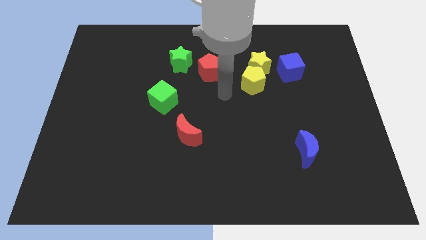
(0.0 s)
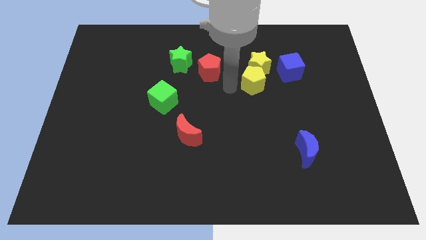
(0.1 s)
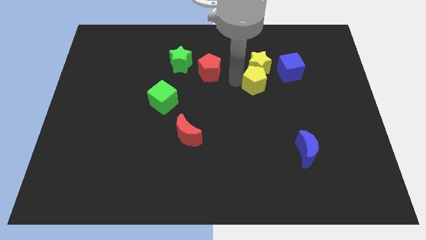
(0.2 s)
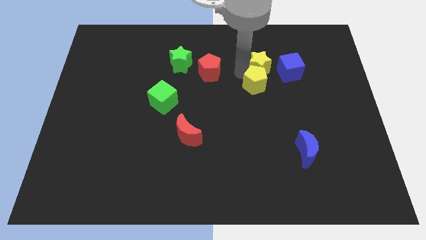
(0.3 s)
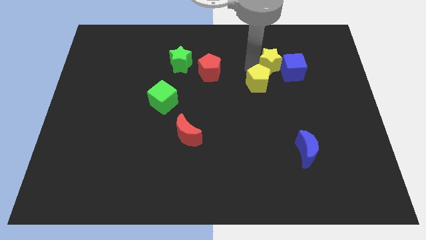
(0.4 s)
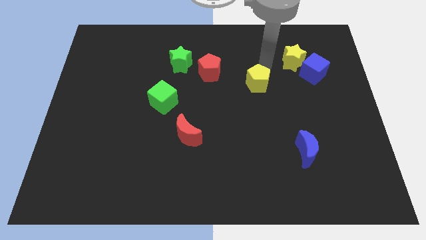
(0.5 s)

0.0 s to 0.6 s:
pull the yellow pentagon apart from the yellow star

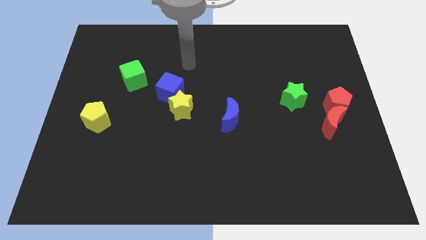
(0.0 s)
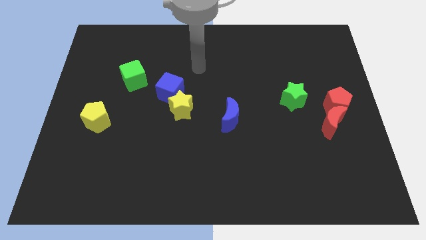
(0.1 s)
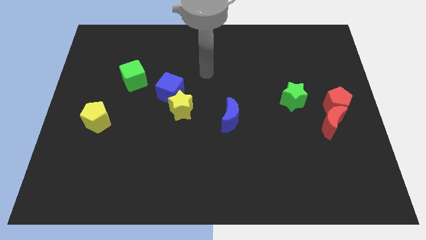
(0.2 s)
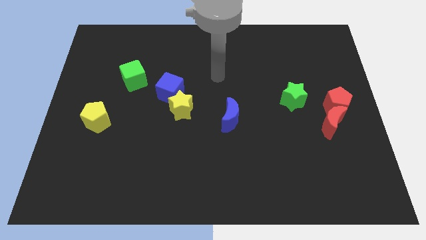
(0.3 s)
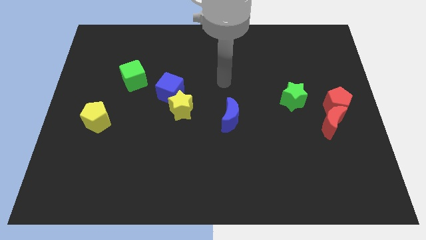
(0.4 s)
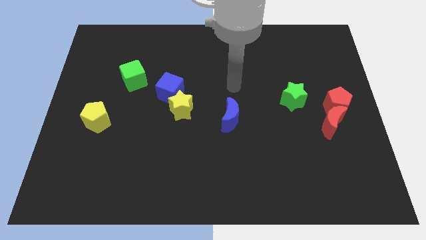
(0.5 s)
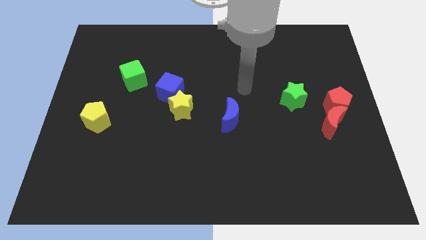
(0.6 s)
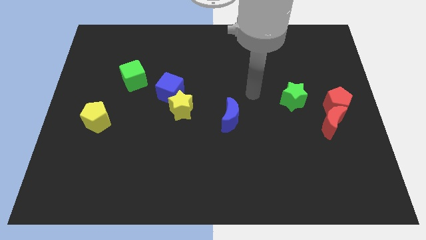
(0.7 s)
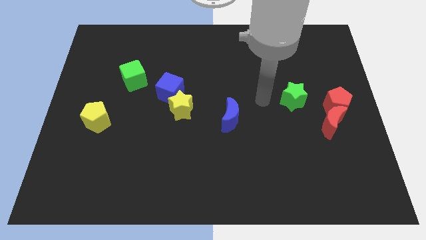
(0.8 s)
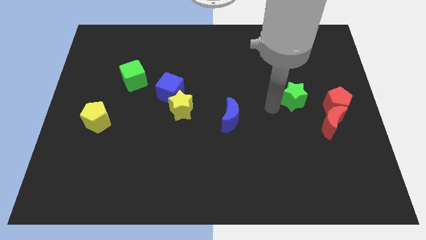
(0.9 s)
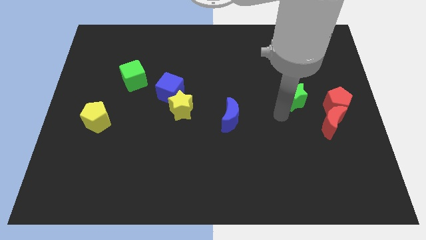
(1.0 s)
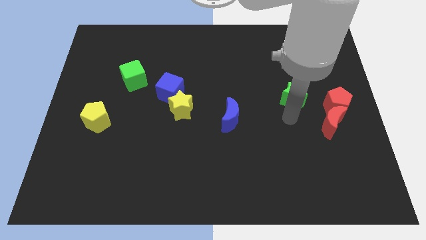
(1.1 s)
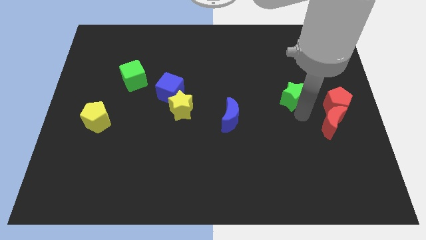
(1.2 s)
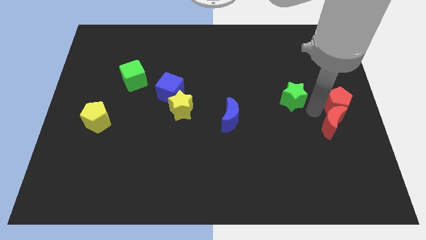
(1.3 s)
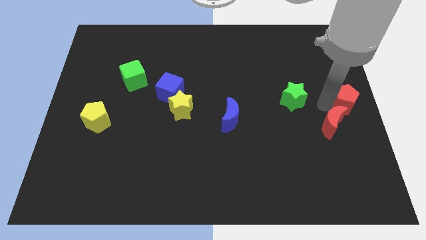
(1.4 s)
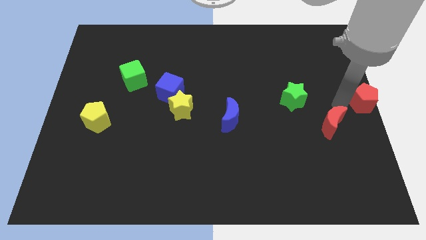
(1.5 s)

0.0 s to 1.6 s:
separate the red moon from the red pentagon

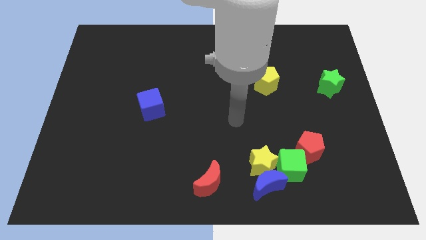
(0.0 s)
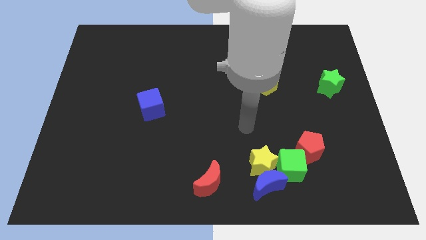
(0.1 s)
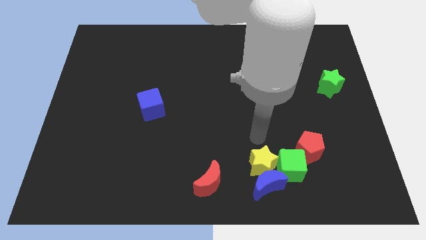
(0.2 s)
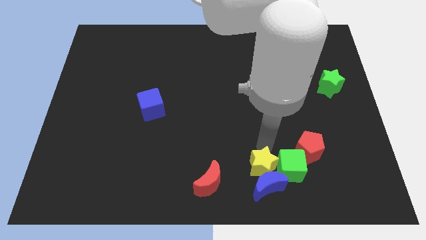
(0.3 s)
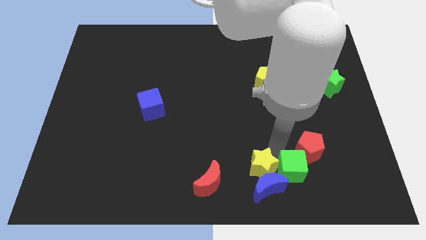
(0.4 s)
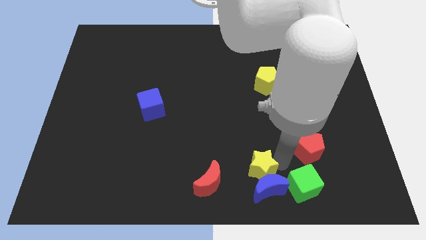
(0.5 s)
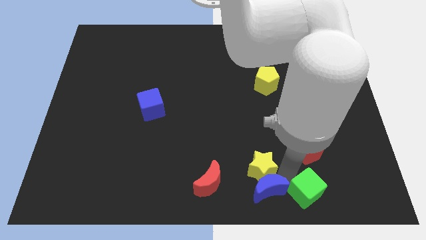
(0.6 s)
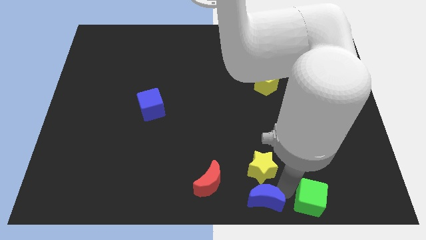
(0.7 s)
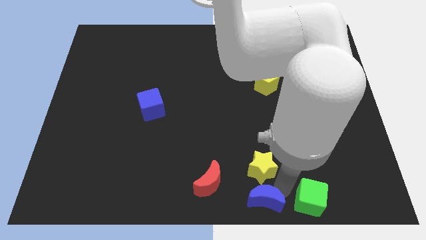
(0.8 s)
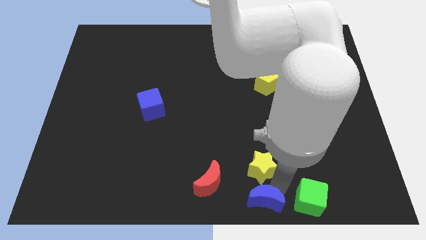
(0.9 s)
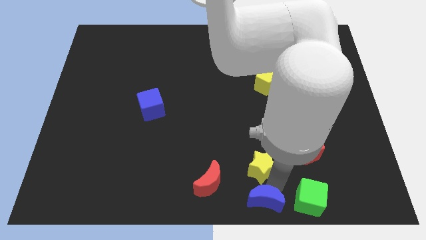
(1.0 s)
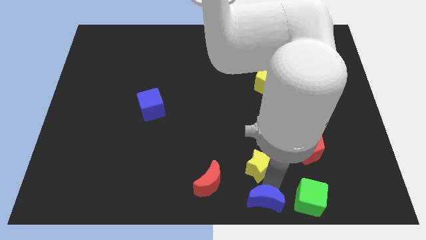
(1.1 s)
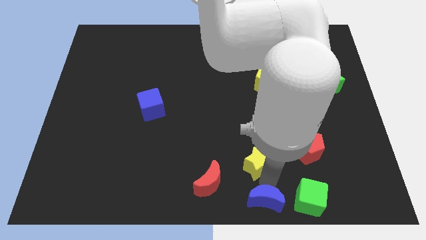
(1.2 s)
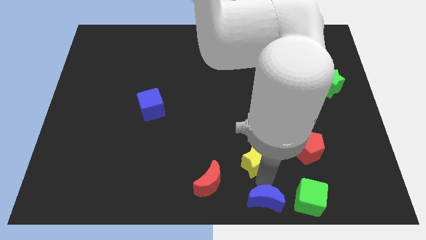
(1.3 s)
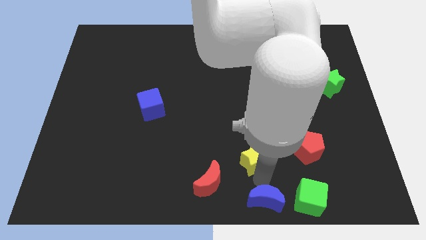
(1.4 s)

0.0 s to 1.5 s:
move the yellow star away from the blue moon and green cube

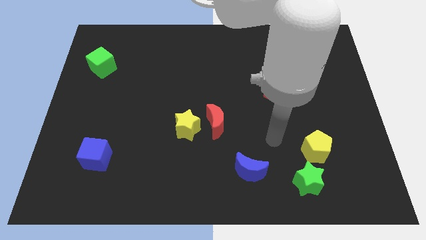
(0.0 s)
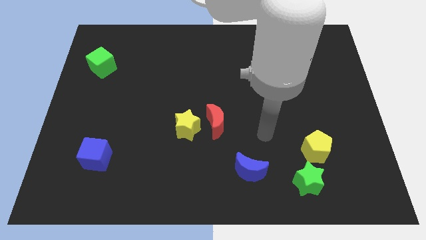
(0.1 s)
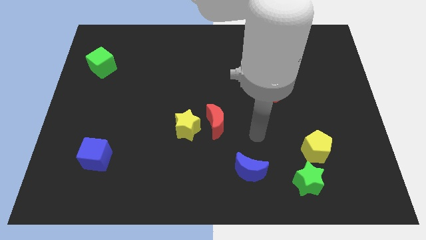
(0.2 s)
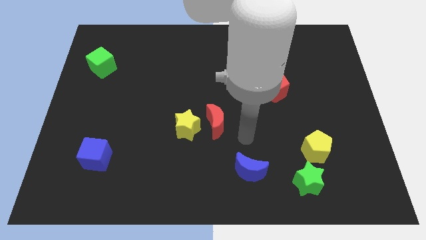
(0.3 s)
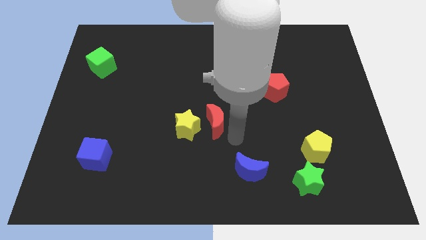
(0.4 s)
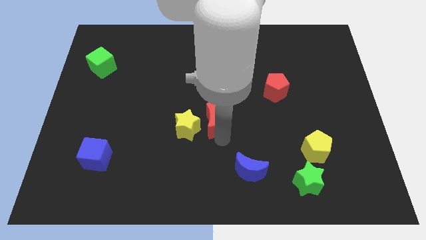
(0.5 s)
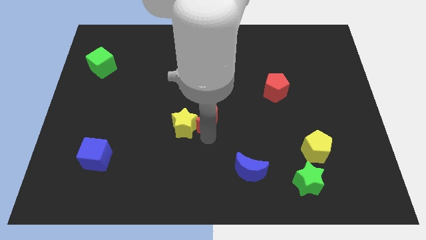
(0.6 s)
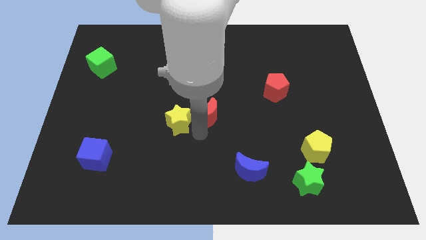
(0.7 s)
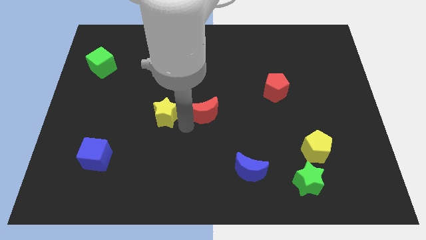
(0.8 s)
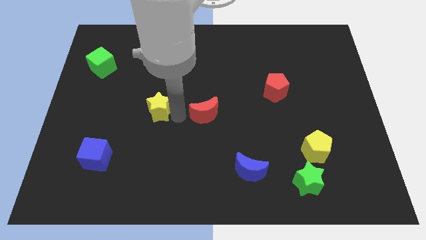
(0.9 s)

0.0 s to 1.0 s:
separate the red moon from the yellow star

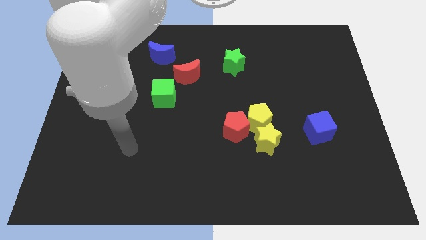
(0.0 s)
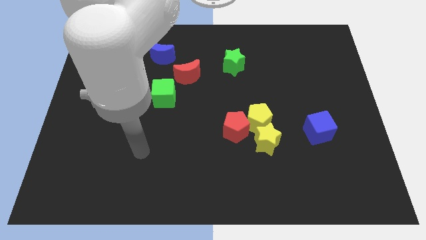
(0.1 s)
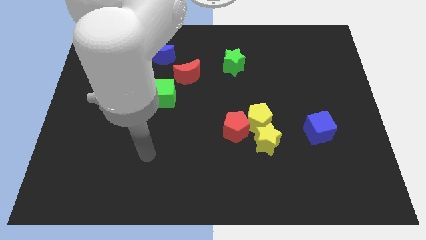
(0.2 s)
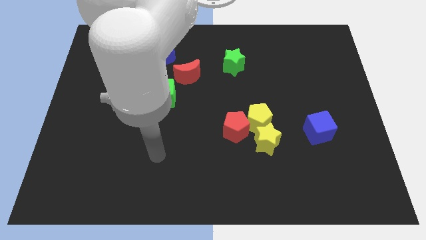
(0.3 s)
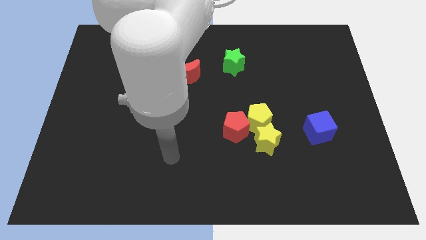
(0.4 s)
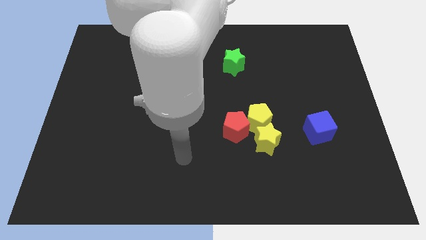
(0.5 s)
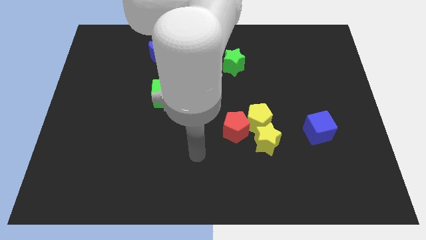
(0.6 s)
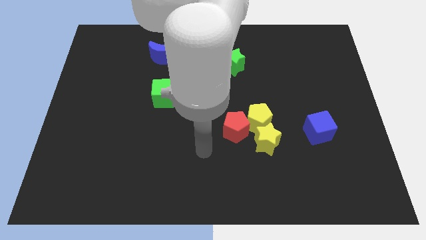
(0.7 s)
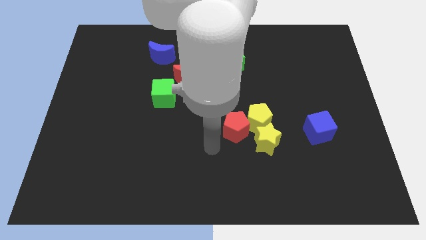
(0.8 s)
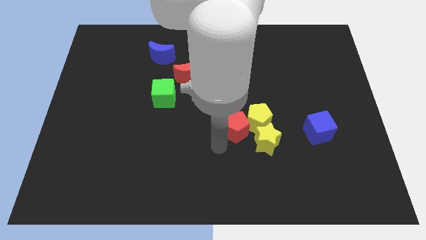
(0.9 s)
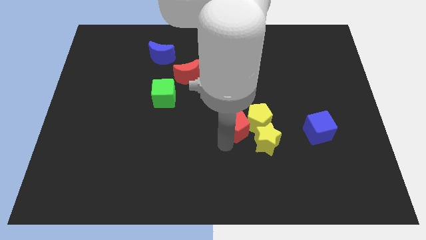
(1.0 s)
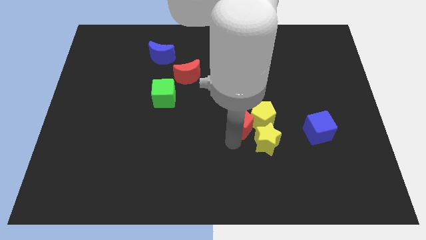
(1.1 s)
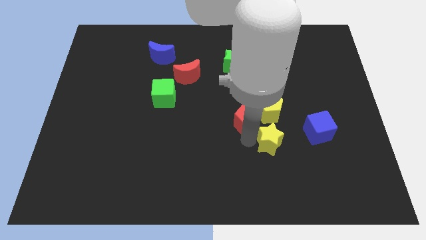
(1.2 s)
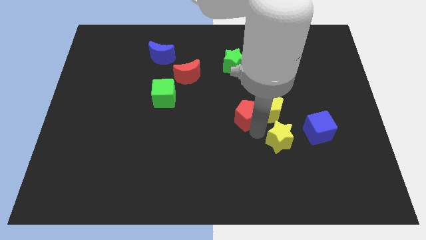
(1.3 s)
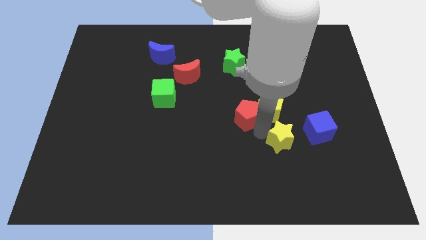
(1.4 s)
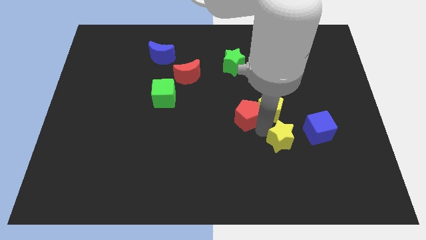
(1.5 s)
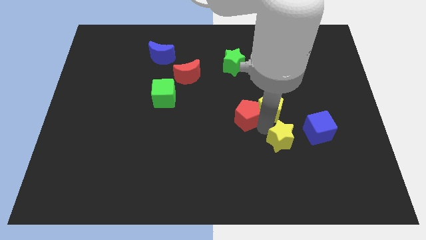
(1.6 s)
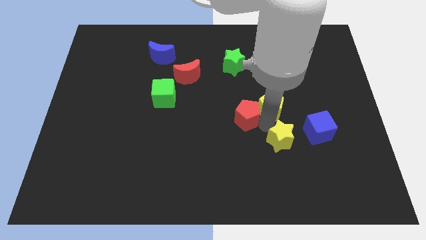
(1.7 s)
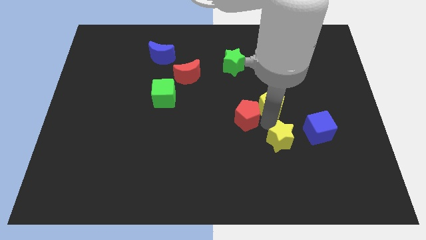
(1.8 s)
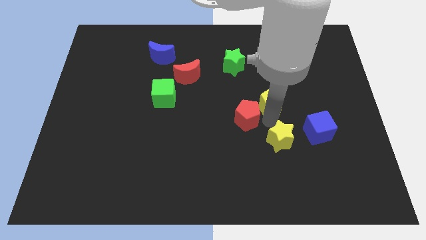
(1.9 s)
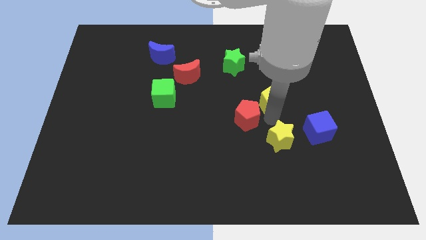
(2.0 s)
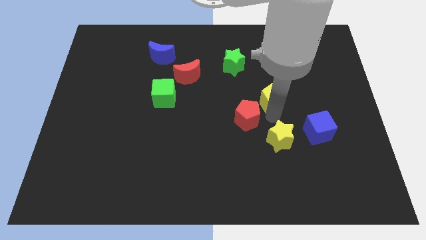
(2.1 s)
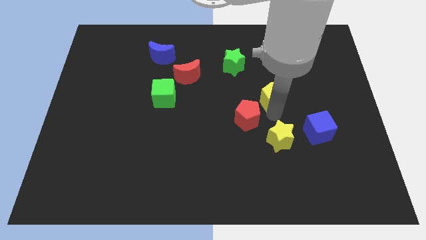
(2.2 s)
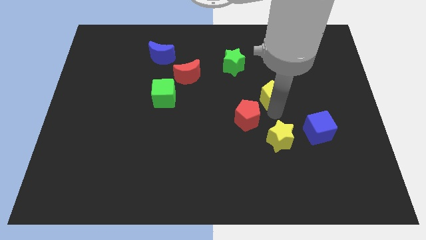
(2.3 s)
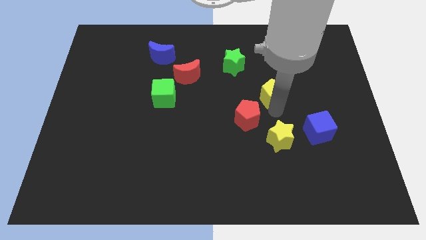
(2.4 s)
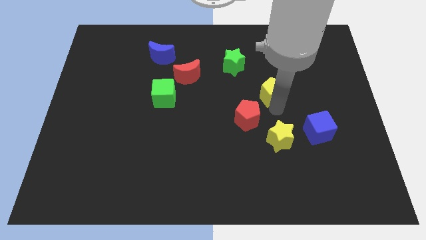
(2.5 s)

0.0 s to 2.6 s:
separate the yellow pentagon from the red pentagon and yellow star

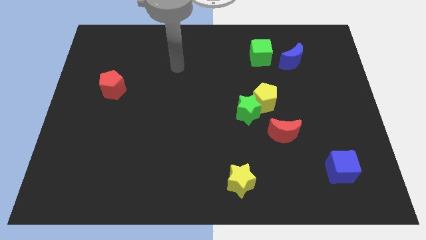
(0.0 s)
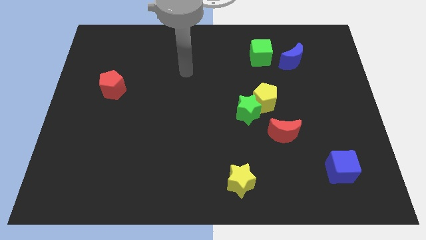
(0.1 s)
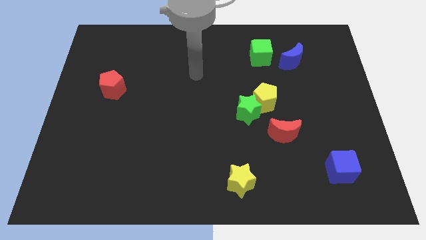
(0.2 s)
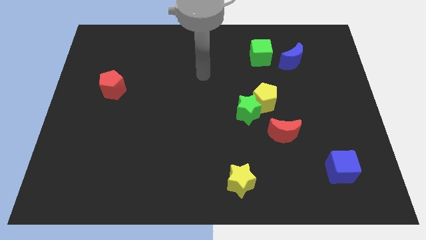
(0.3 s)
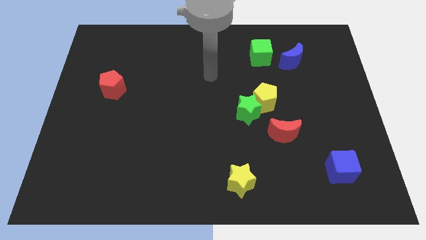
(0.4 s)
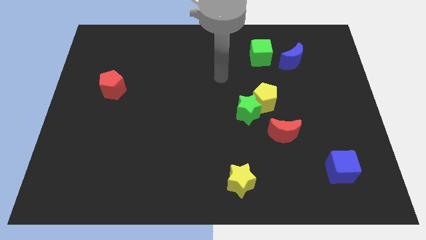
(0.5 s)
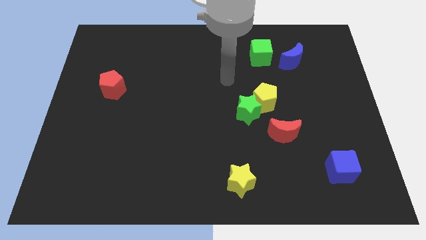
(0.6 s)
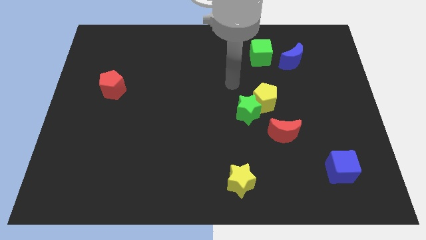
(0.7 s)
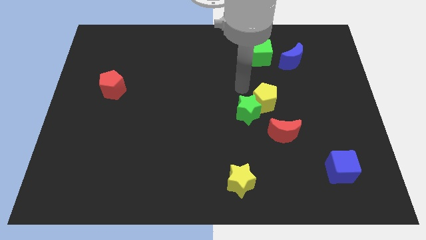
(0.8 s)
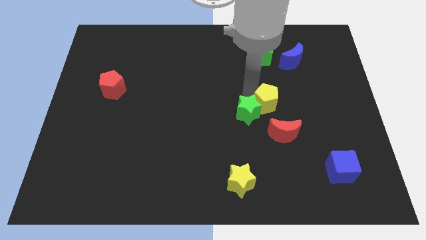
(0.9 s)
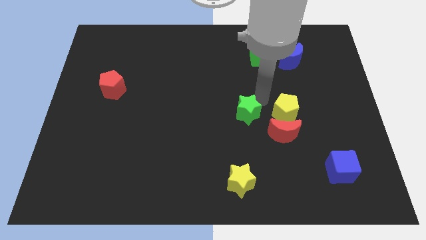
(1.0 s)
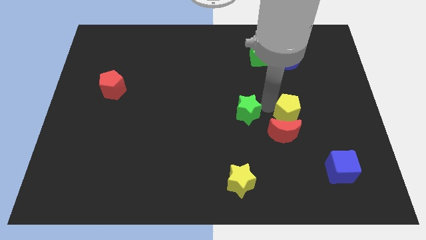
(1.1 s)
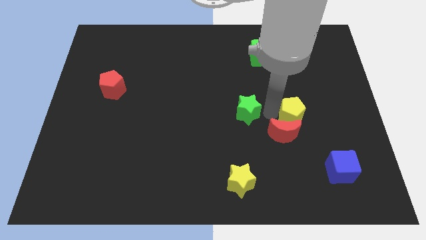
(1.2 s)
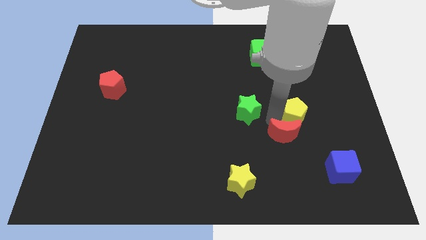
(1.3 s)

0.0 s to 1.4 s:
separate the green star from the yellow pentagon and red moon

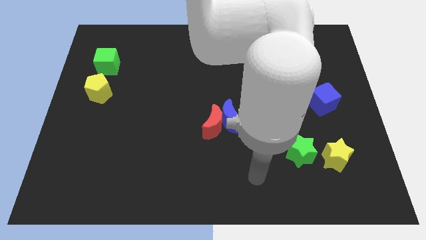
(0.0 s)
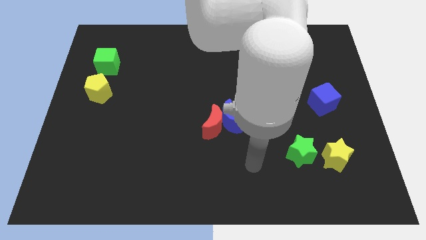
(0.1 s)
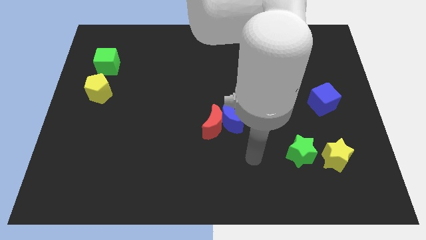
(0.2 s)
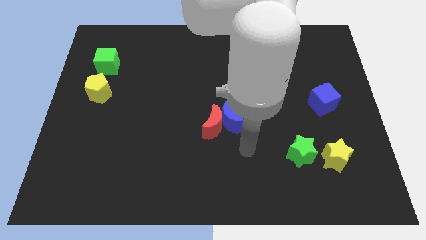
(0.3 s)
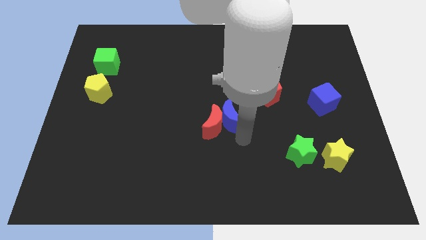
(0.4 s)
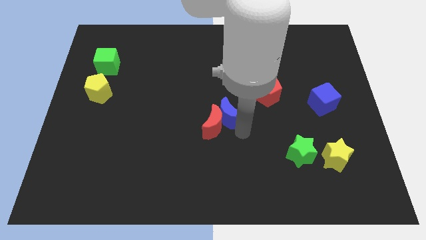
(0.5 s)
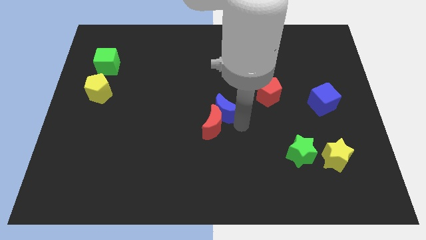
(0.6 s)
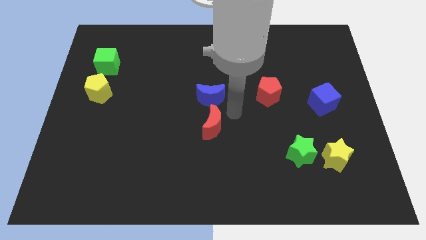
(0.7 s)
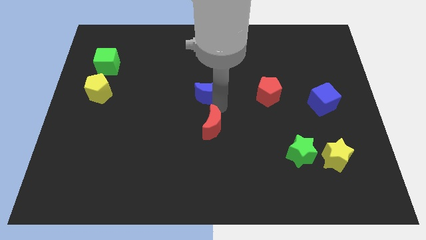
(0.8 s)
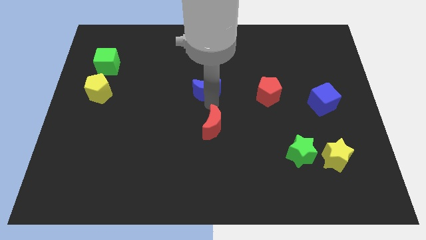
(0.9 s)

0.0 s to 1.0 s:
separate the red moon from the blue moon
